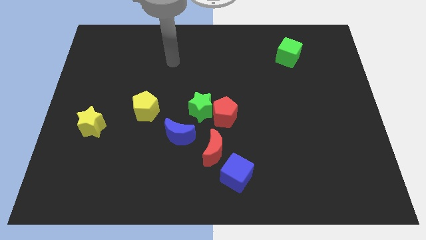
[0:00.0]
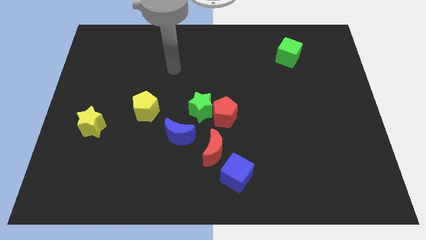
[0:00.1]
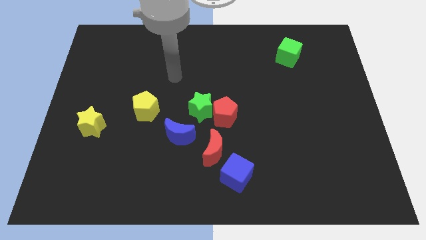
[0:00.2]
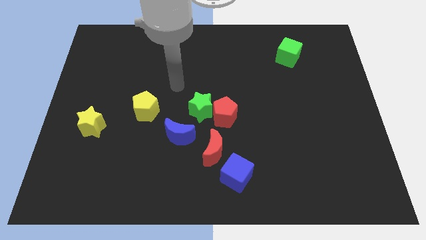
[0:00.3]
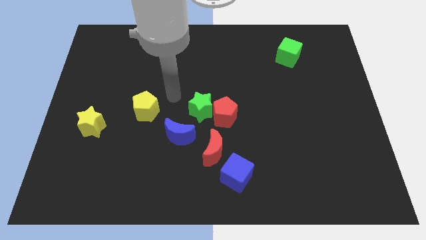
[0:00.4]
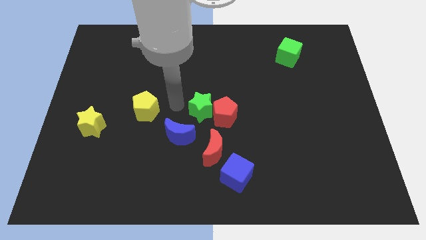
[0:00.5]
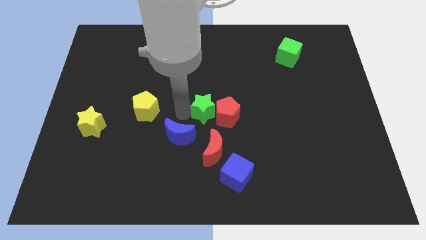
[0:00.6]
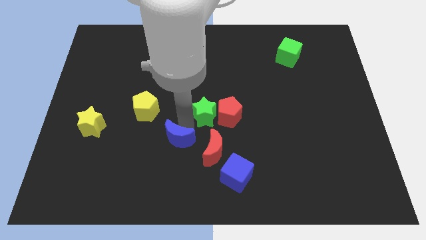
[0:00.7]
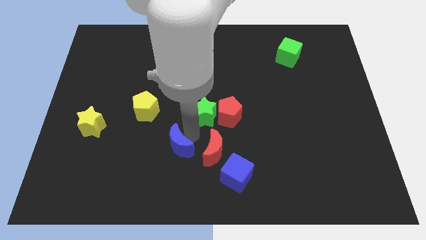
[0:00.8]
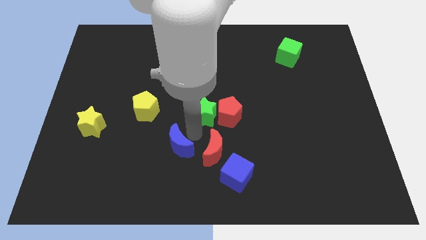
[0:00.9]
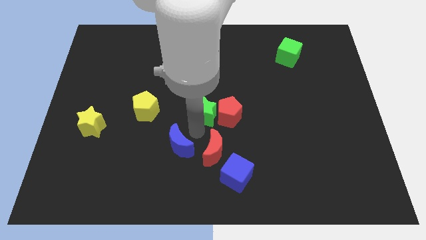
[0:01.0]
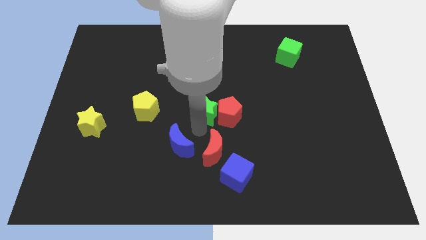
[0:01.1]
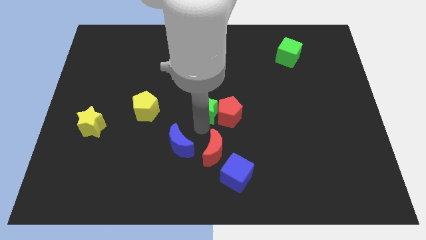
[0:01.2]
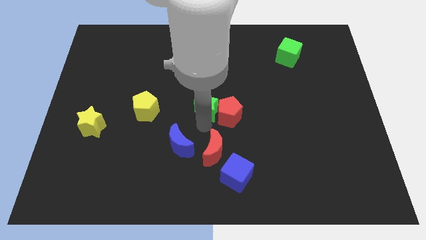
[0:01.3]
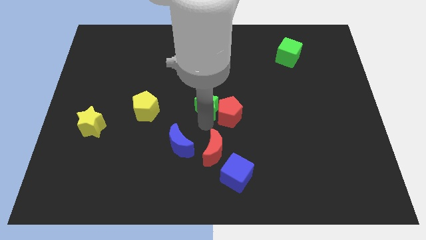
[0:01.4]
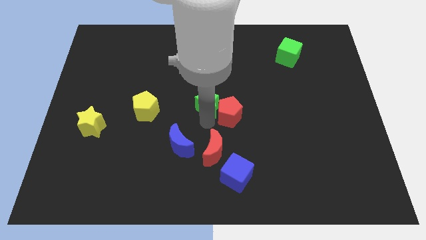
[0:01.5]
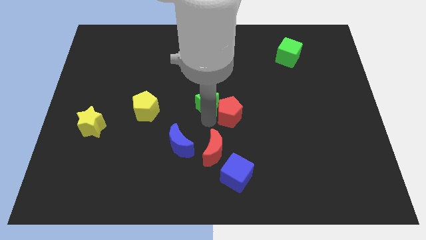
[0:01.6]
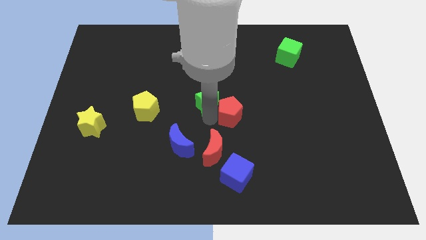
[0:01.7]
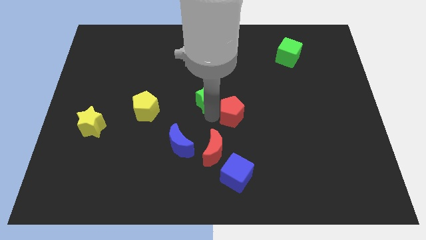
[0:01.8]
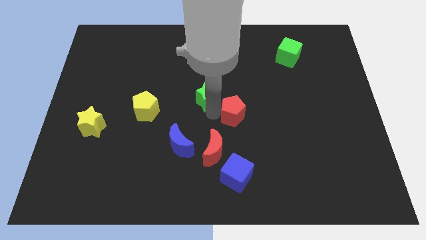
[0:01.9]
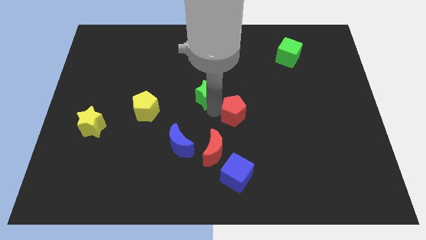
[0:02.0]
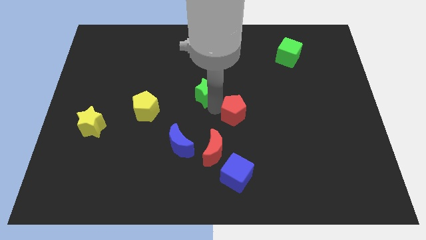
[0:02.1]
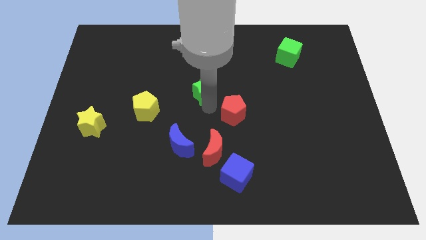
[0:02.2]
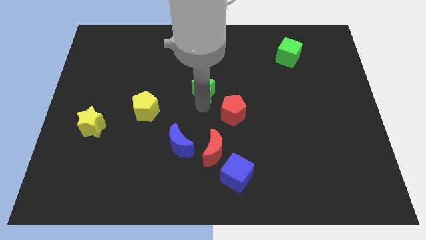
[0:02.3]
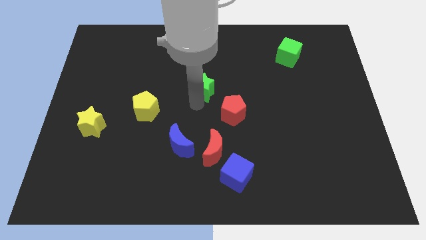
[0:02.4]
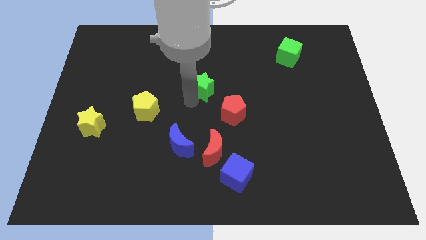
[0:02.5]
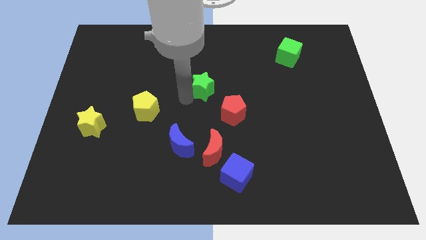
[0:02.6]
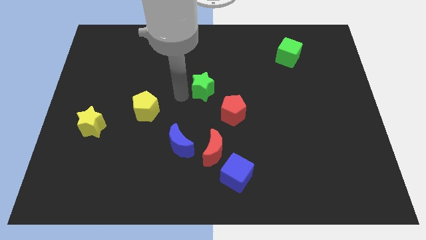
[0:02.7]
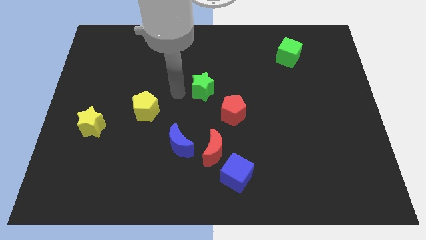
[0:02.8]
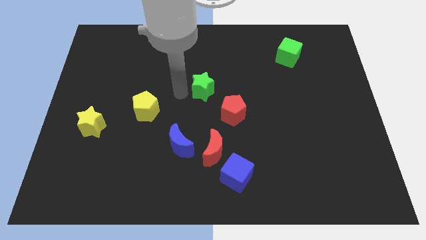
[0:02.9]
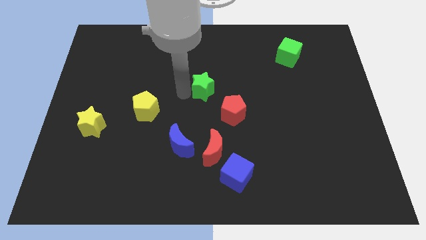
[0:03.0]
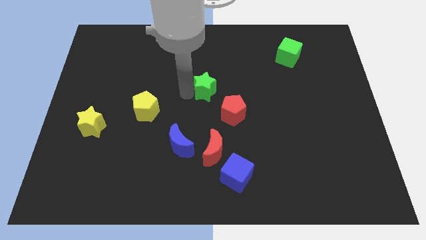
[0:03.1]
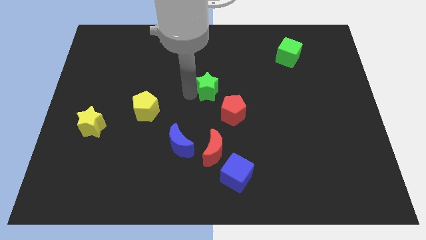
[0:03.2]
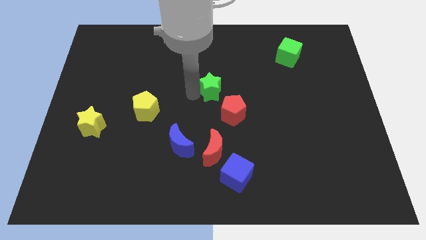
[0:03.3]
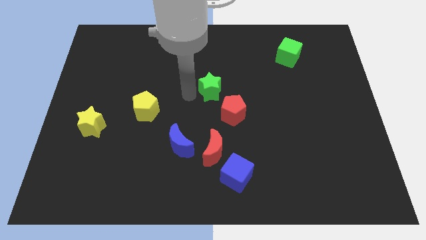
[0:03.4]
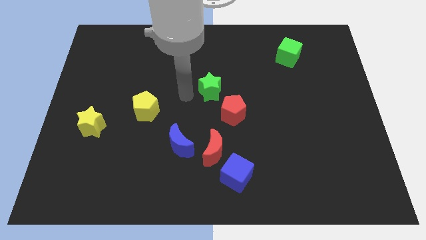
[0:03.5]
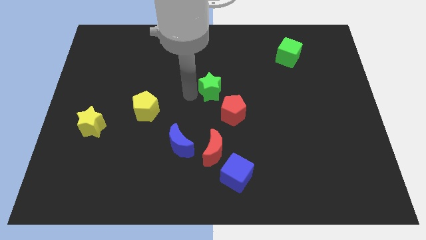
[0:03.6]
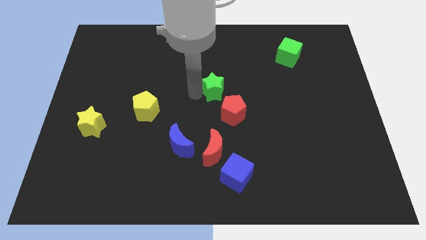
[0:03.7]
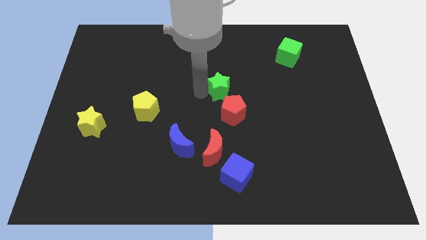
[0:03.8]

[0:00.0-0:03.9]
slightly push the green star up and right diagonally

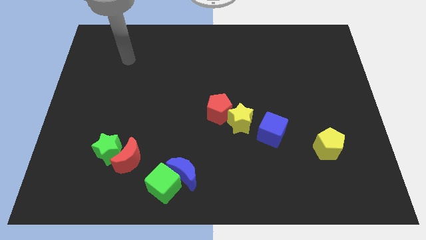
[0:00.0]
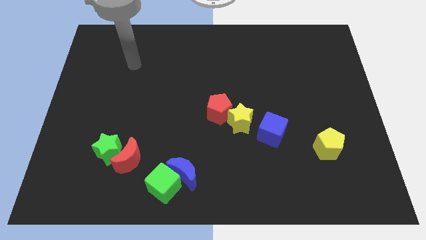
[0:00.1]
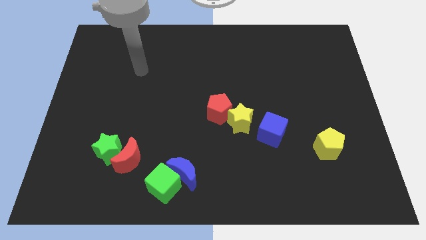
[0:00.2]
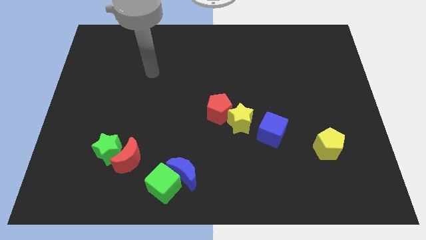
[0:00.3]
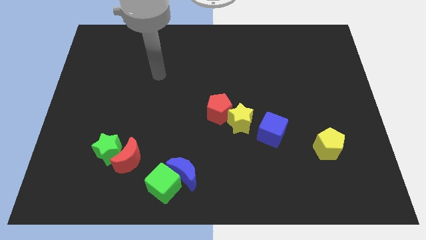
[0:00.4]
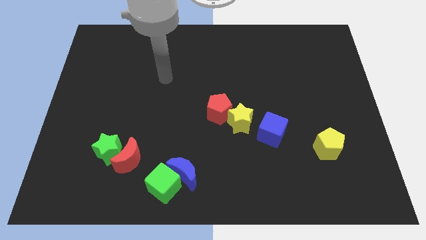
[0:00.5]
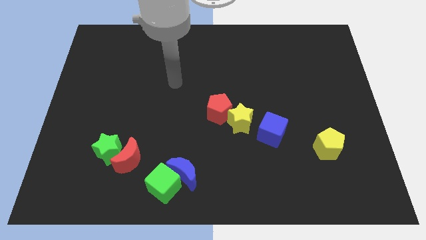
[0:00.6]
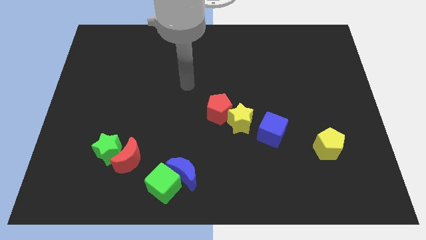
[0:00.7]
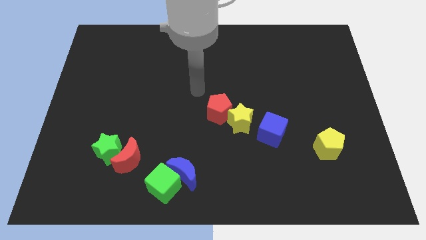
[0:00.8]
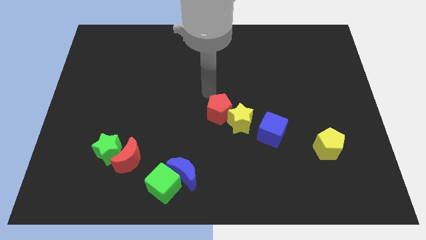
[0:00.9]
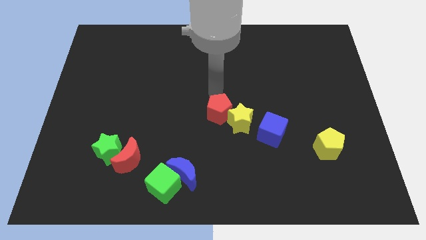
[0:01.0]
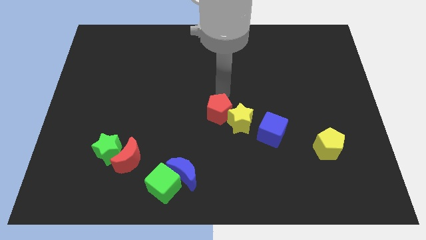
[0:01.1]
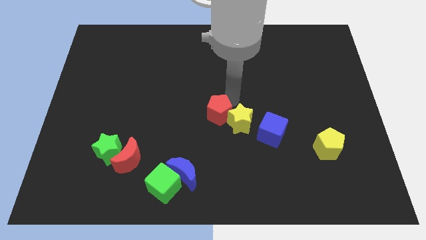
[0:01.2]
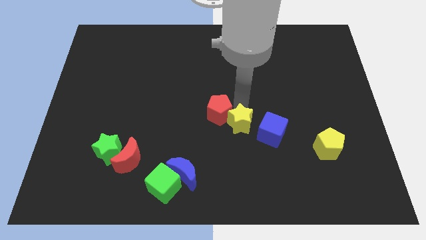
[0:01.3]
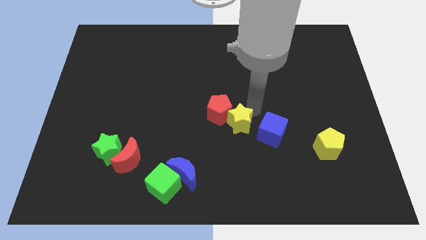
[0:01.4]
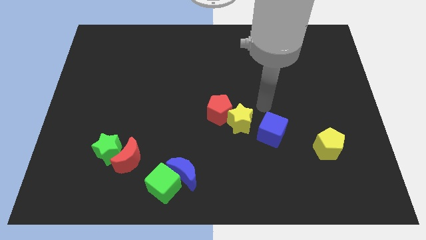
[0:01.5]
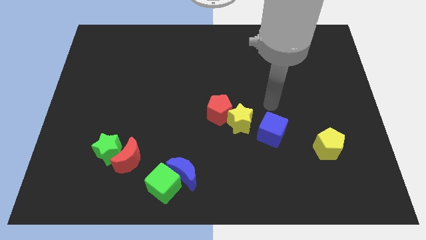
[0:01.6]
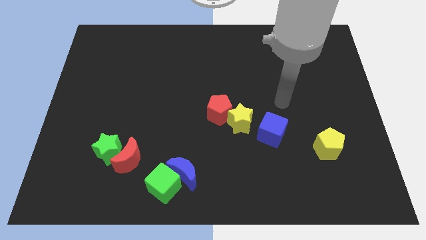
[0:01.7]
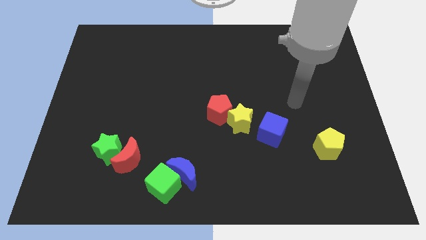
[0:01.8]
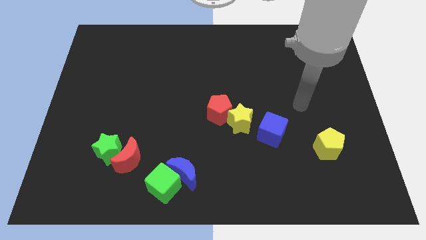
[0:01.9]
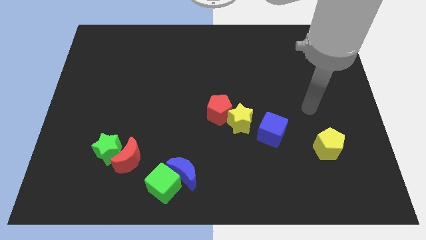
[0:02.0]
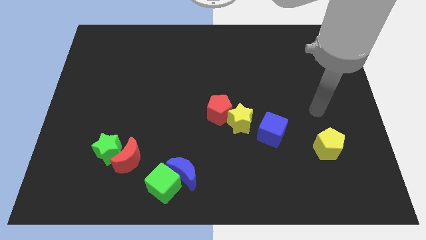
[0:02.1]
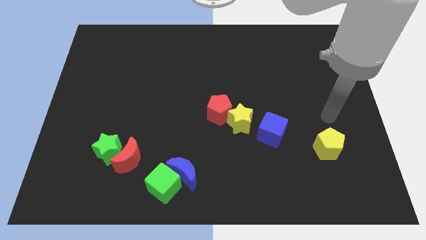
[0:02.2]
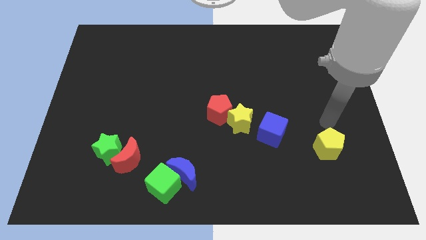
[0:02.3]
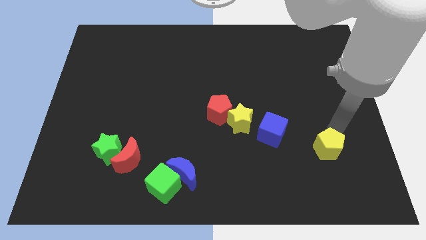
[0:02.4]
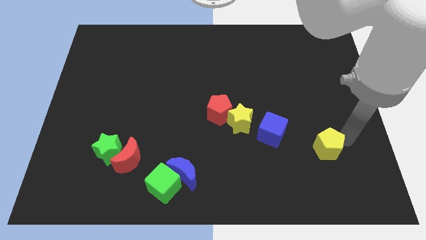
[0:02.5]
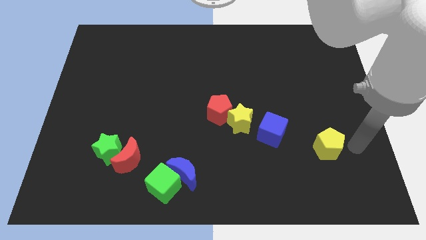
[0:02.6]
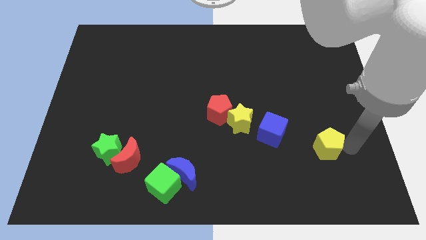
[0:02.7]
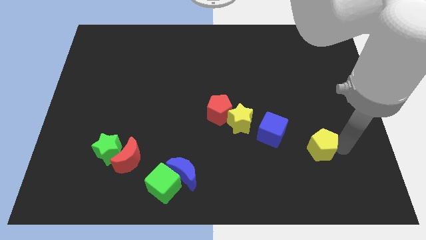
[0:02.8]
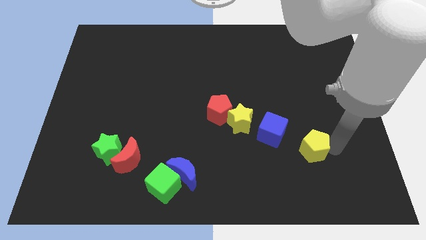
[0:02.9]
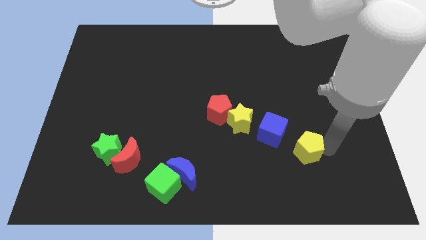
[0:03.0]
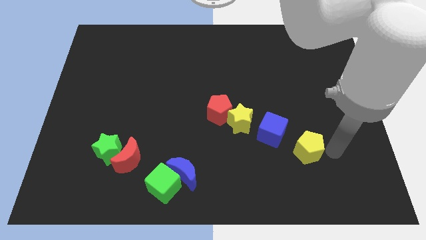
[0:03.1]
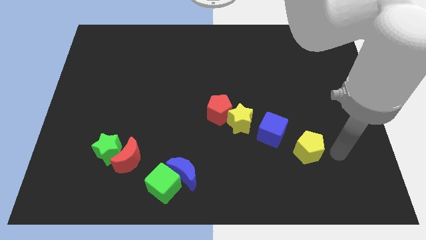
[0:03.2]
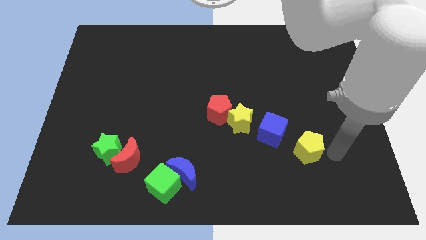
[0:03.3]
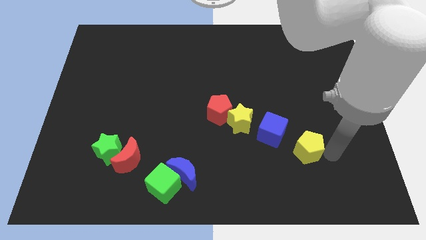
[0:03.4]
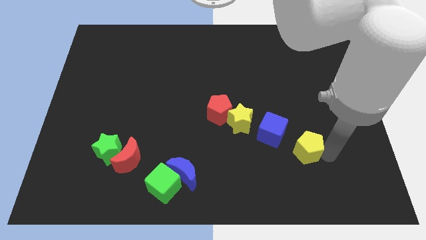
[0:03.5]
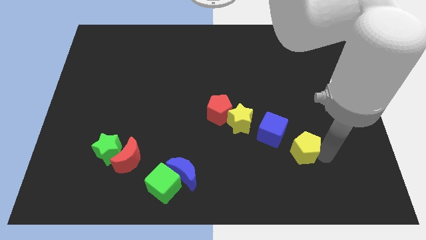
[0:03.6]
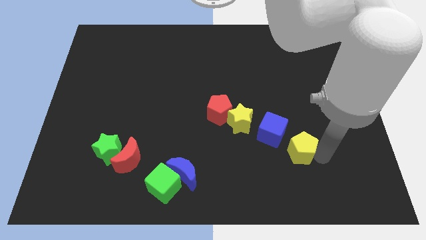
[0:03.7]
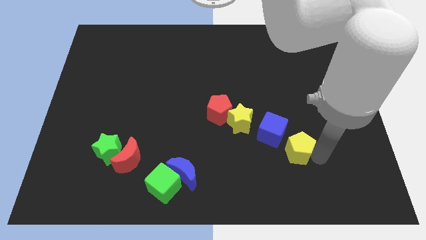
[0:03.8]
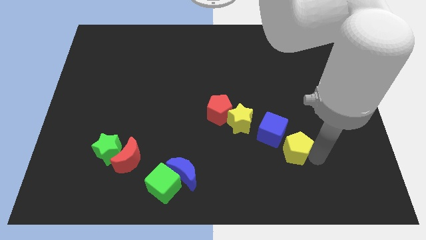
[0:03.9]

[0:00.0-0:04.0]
slightly move the yellow pentagon left
